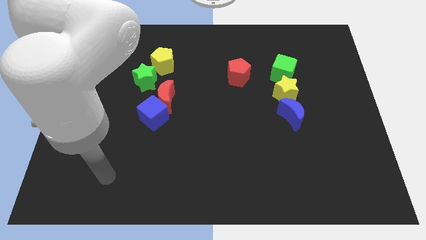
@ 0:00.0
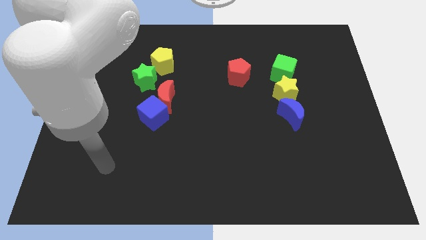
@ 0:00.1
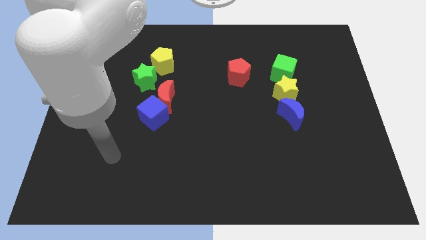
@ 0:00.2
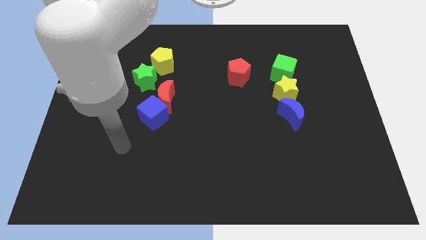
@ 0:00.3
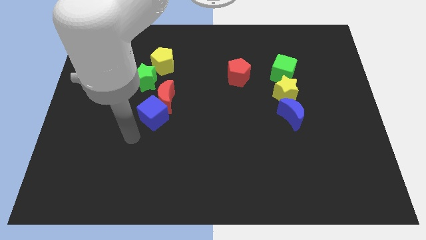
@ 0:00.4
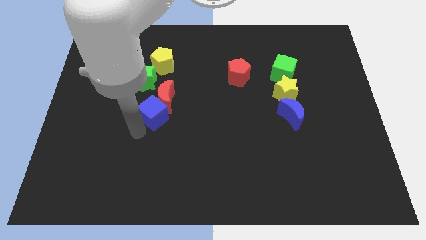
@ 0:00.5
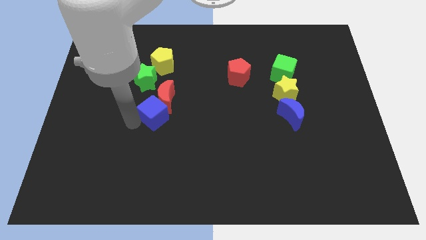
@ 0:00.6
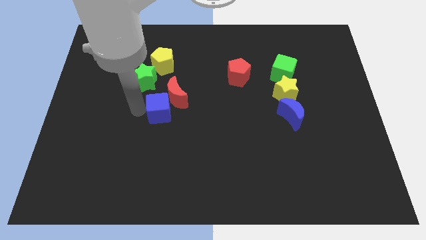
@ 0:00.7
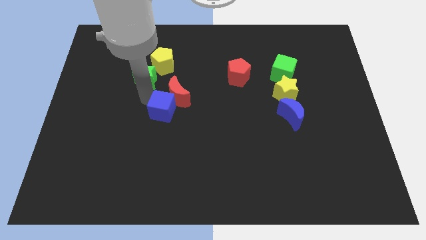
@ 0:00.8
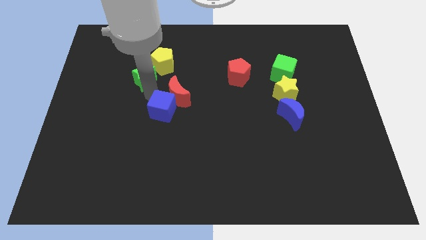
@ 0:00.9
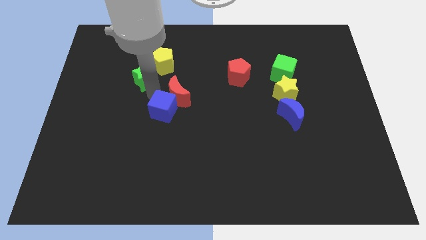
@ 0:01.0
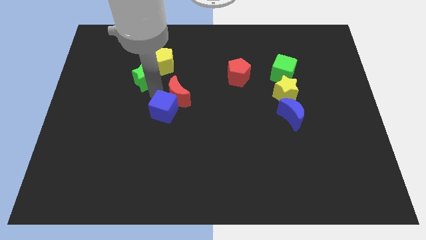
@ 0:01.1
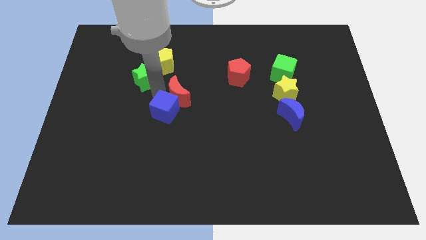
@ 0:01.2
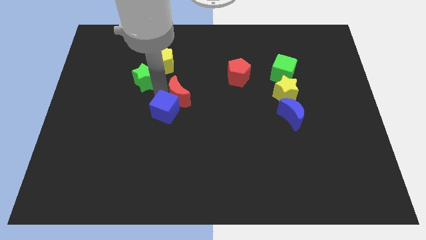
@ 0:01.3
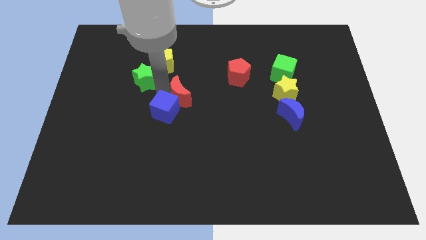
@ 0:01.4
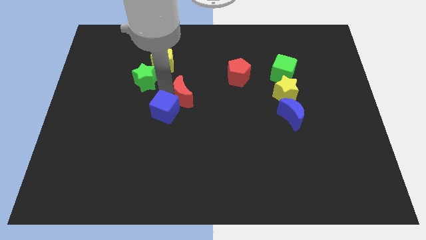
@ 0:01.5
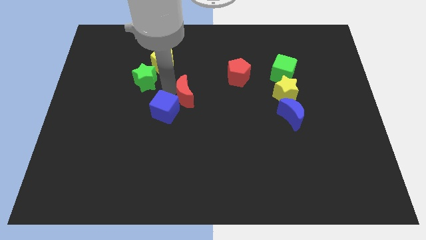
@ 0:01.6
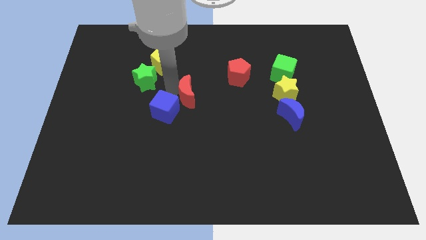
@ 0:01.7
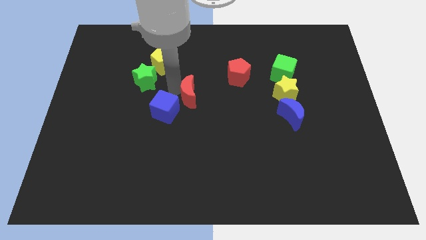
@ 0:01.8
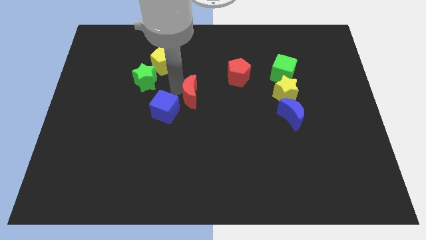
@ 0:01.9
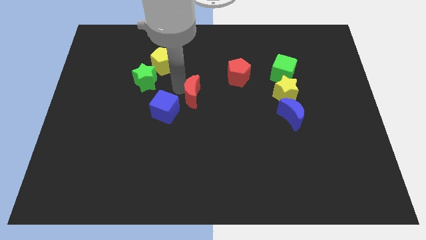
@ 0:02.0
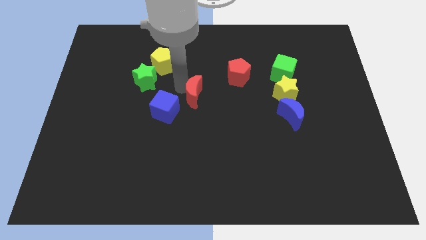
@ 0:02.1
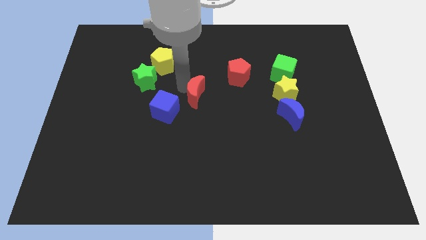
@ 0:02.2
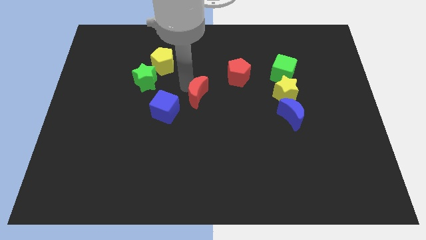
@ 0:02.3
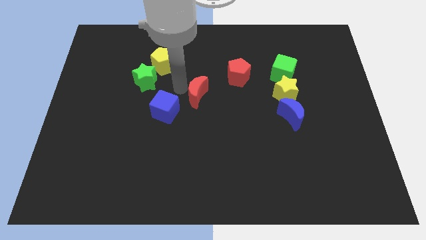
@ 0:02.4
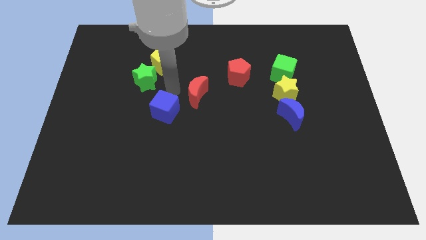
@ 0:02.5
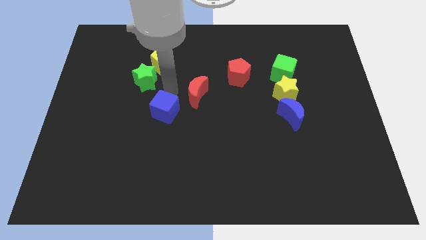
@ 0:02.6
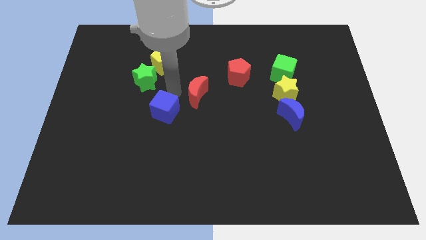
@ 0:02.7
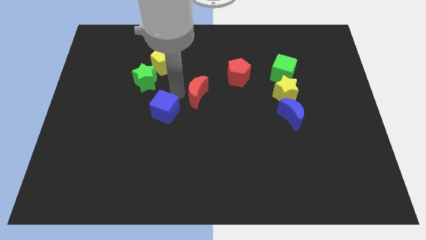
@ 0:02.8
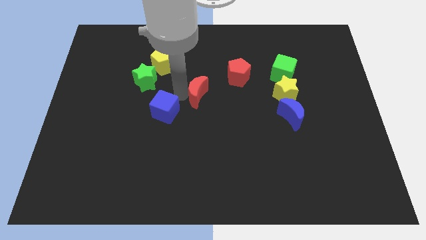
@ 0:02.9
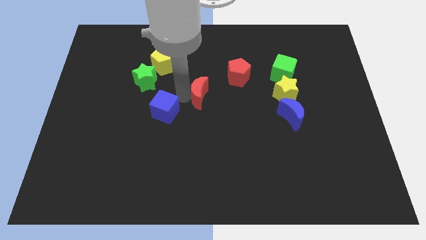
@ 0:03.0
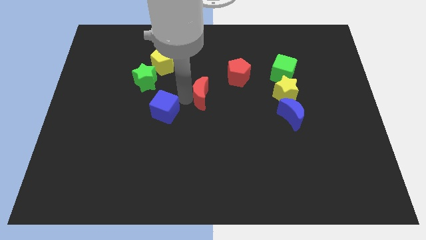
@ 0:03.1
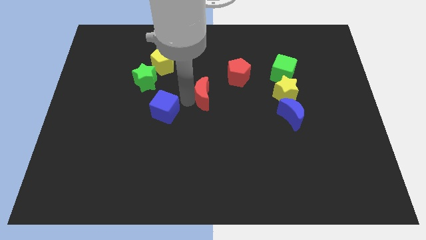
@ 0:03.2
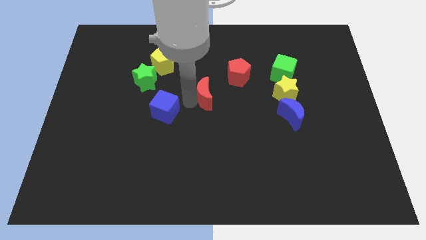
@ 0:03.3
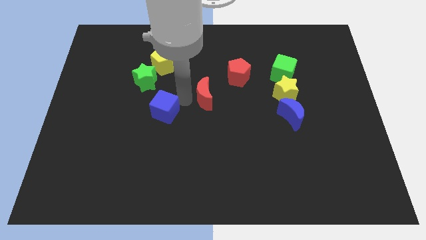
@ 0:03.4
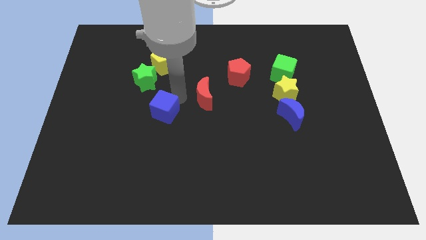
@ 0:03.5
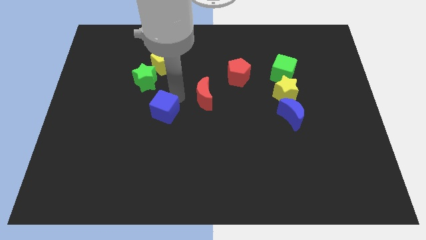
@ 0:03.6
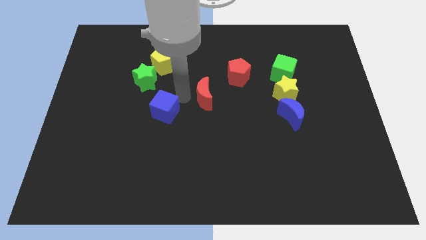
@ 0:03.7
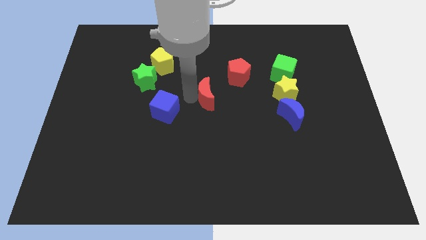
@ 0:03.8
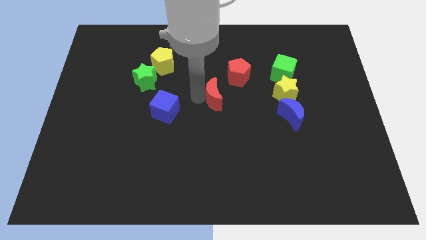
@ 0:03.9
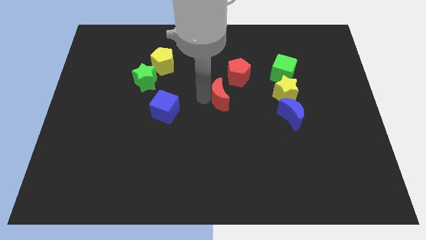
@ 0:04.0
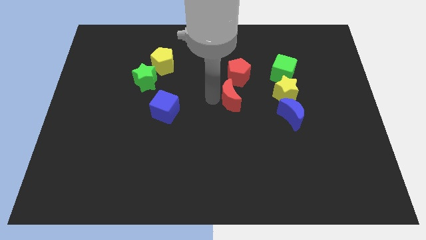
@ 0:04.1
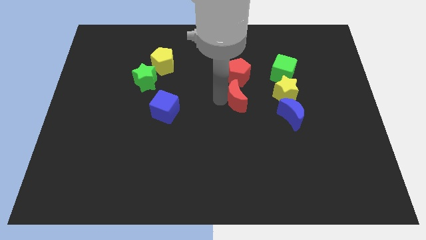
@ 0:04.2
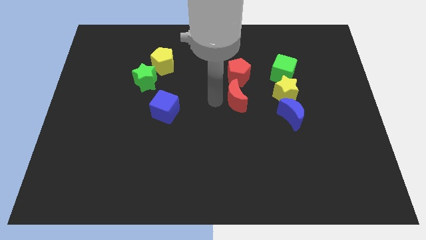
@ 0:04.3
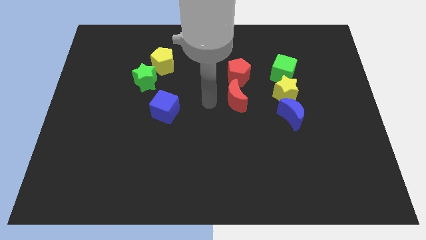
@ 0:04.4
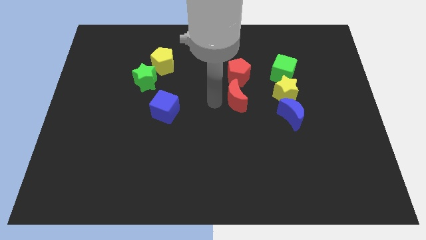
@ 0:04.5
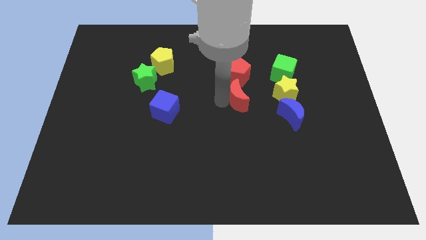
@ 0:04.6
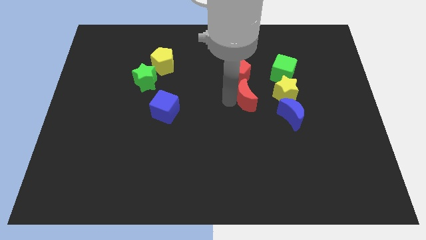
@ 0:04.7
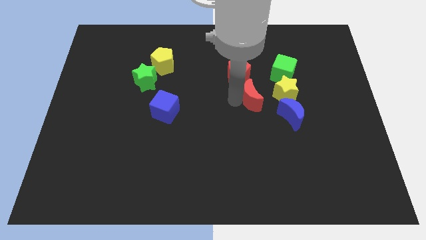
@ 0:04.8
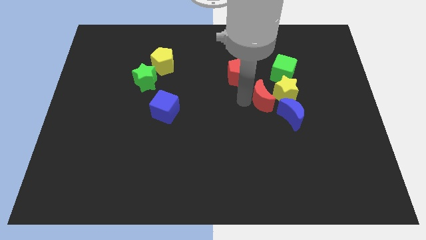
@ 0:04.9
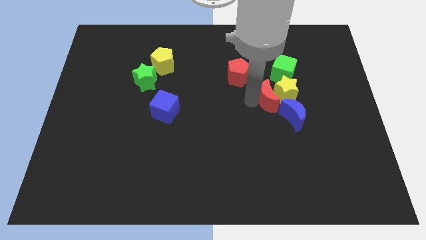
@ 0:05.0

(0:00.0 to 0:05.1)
put the red moon next to the yellow star

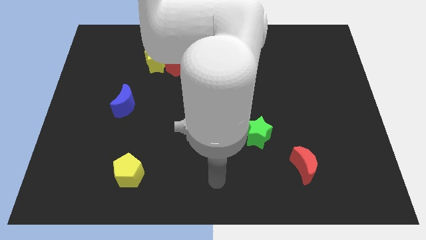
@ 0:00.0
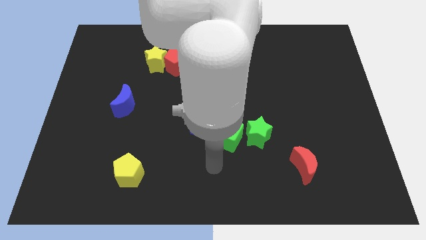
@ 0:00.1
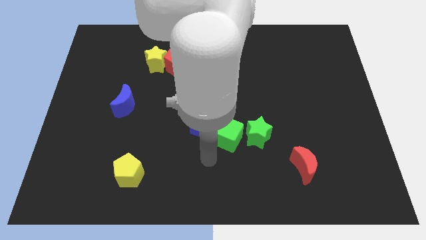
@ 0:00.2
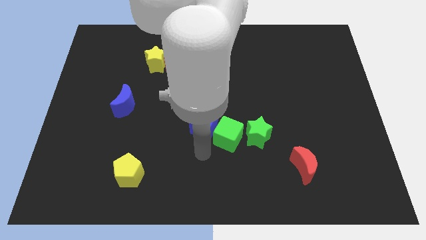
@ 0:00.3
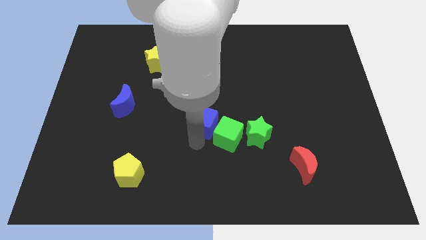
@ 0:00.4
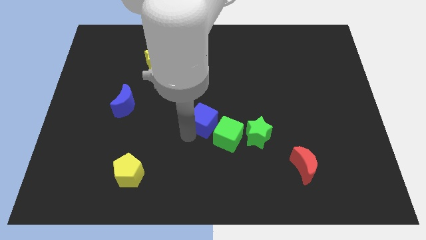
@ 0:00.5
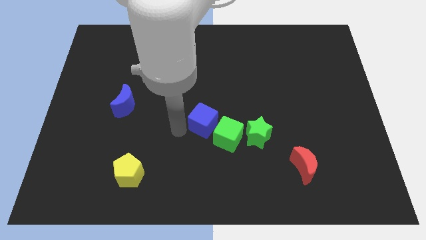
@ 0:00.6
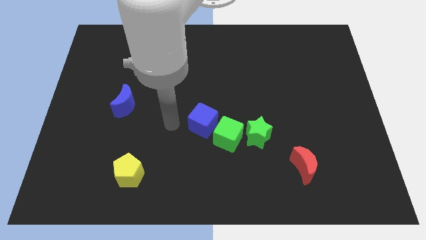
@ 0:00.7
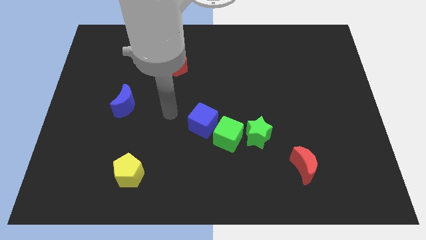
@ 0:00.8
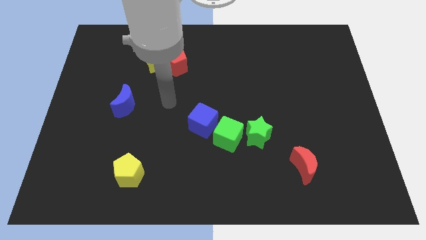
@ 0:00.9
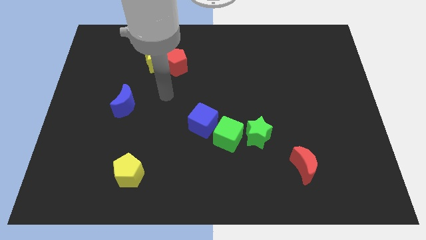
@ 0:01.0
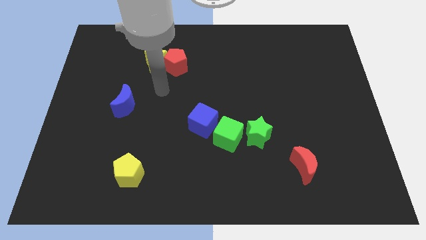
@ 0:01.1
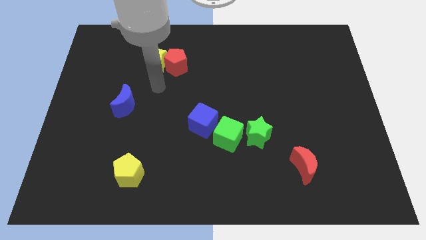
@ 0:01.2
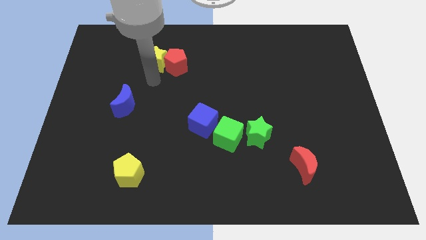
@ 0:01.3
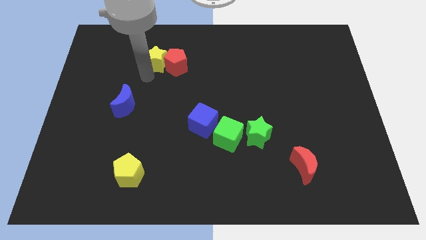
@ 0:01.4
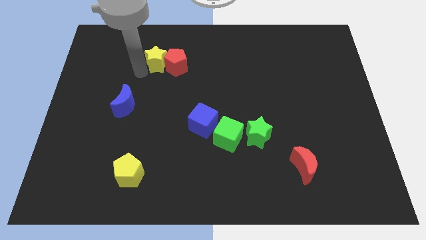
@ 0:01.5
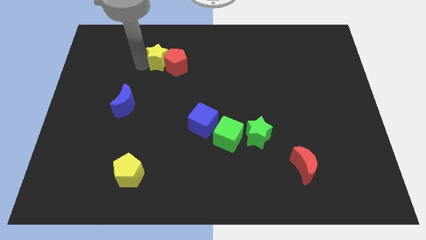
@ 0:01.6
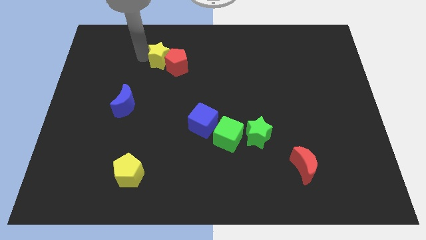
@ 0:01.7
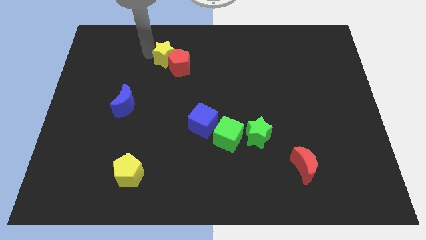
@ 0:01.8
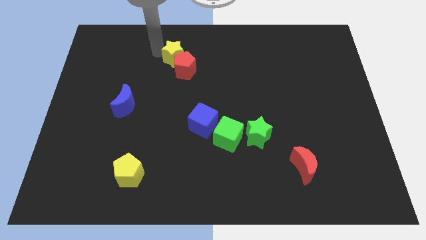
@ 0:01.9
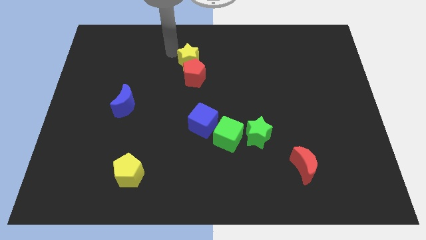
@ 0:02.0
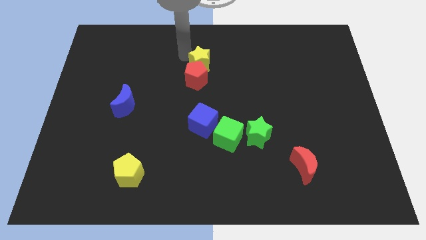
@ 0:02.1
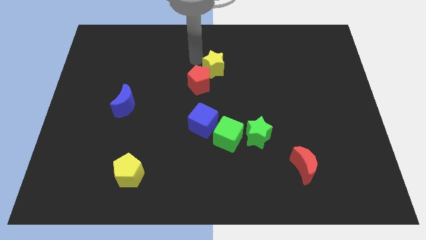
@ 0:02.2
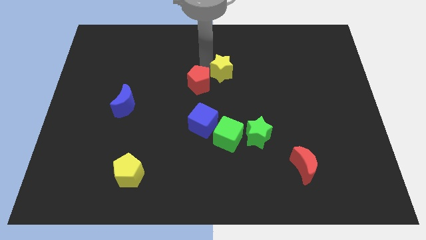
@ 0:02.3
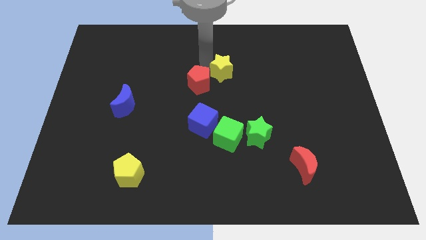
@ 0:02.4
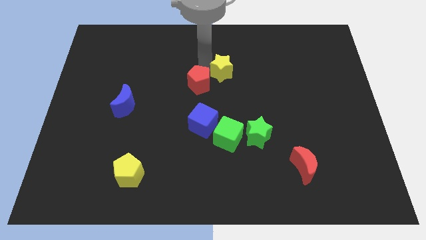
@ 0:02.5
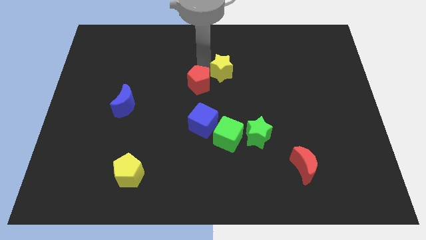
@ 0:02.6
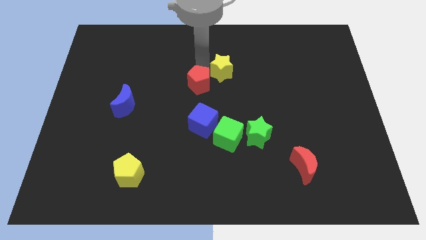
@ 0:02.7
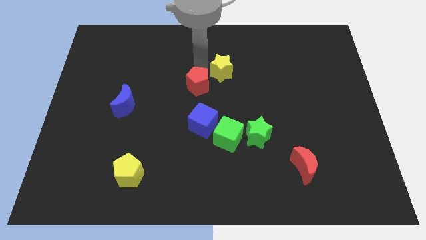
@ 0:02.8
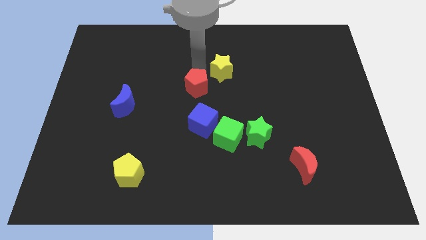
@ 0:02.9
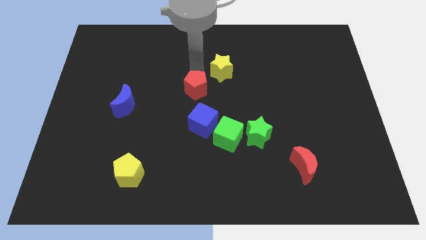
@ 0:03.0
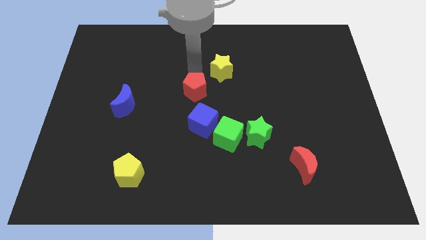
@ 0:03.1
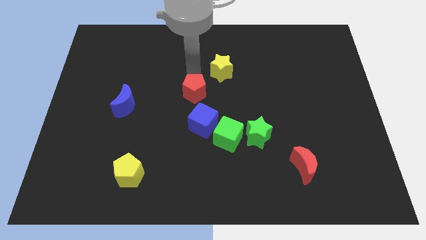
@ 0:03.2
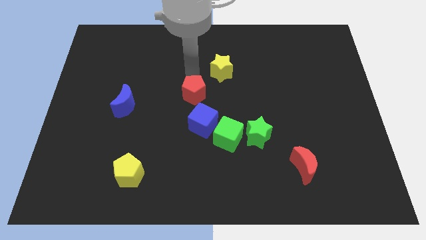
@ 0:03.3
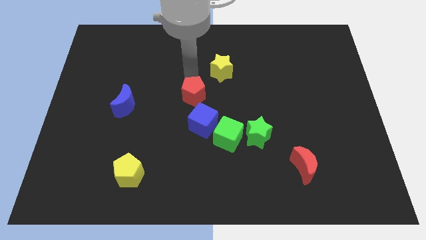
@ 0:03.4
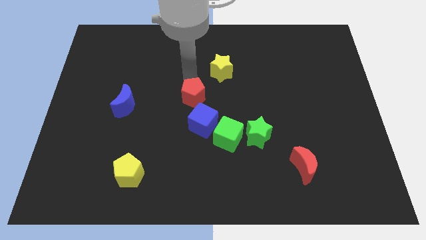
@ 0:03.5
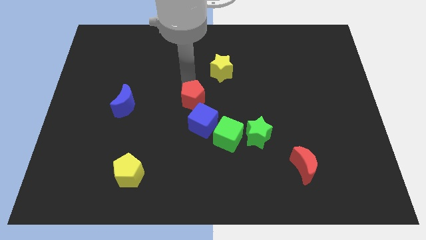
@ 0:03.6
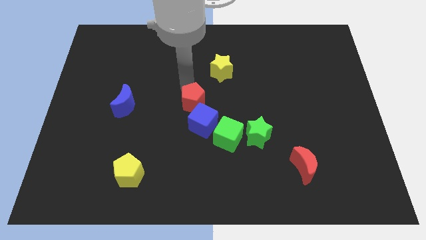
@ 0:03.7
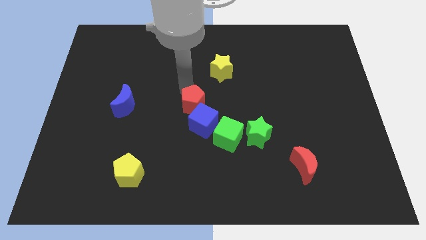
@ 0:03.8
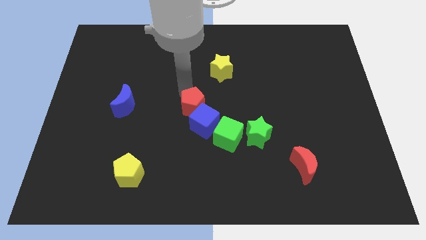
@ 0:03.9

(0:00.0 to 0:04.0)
slide the red pentagon to the blue cube
